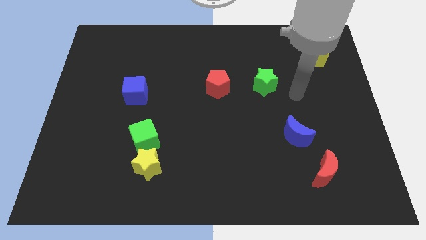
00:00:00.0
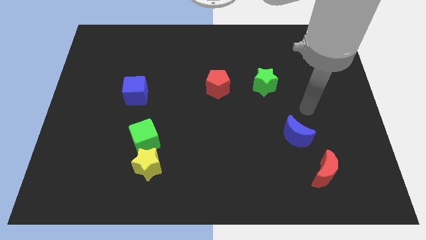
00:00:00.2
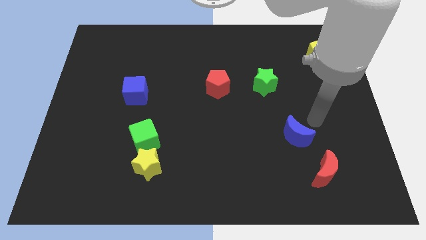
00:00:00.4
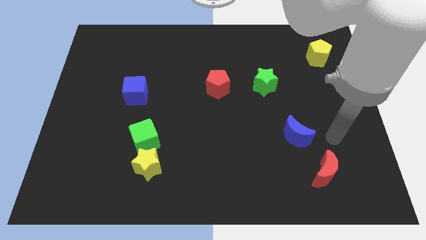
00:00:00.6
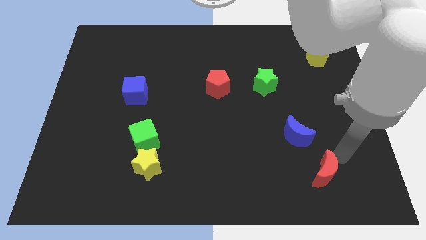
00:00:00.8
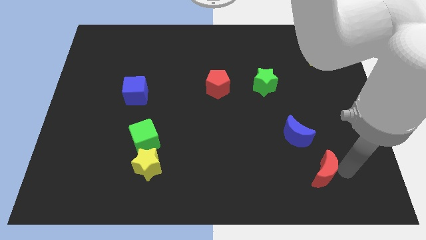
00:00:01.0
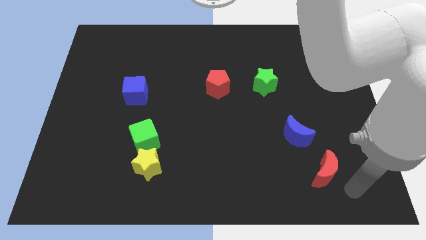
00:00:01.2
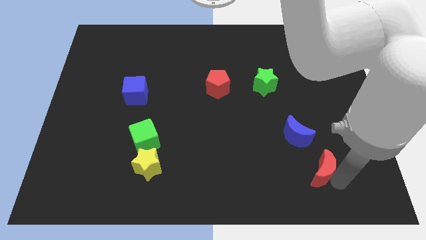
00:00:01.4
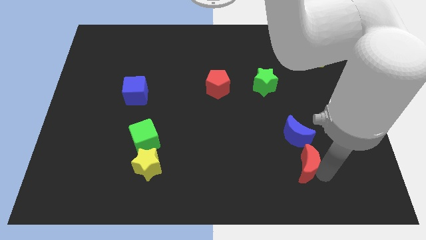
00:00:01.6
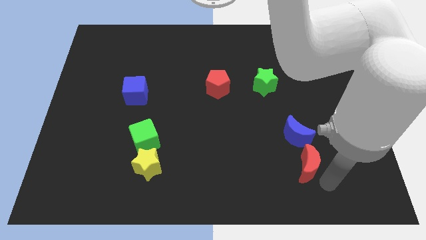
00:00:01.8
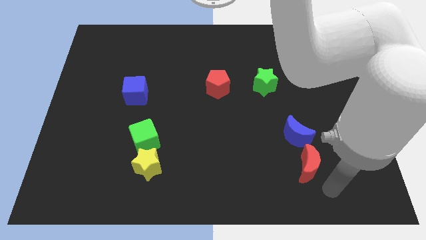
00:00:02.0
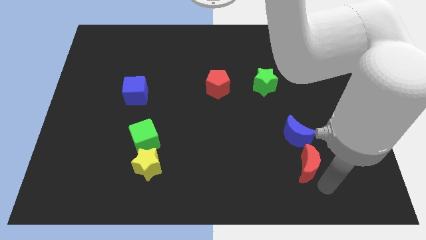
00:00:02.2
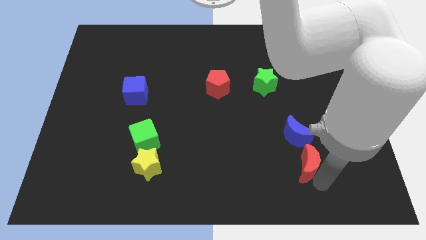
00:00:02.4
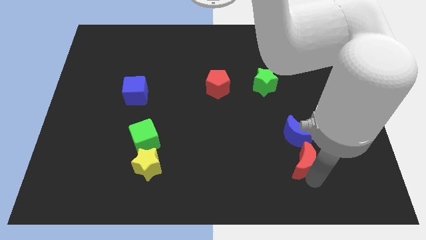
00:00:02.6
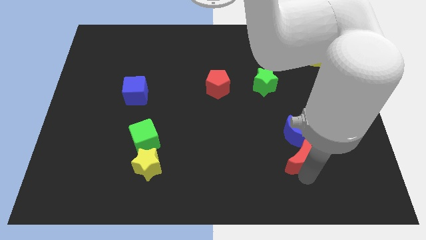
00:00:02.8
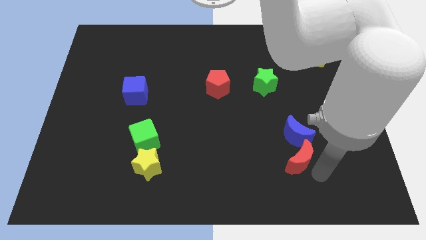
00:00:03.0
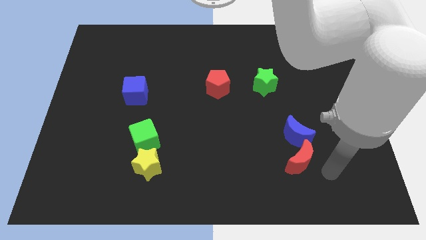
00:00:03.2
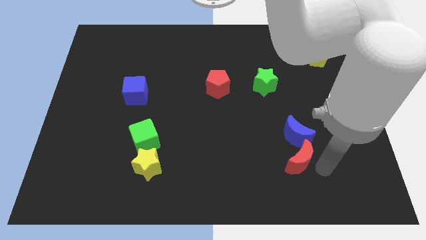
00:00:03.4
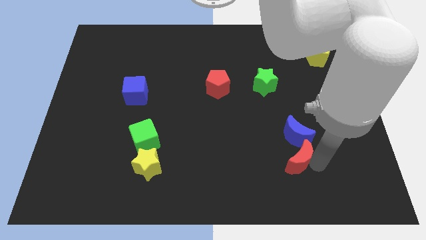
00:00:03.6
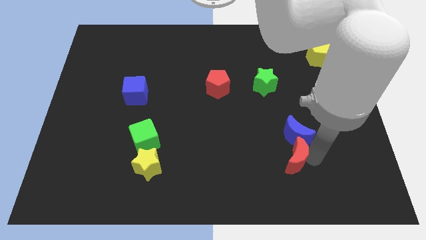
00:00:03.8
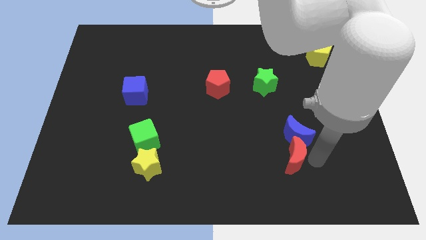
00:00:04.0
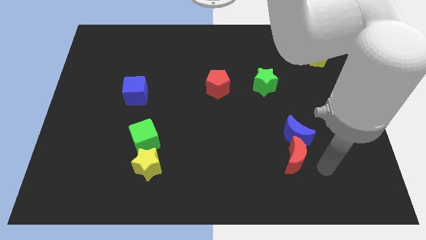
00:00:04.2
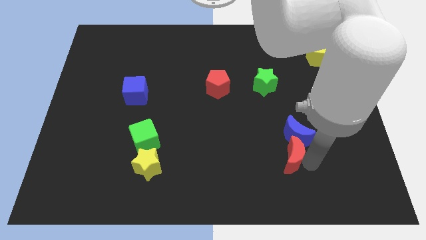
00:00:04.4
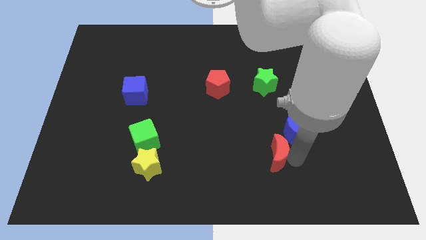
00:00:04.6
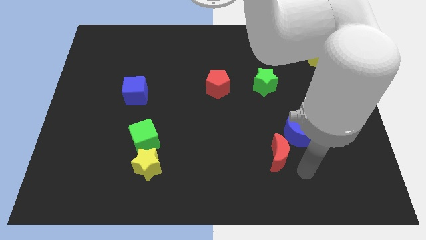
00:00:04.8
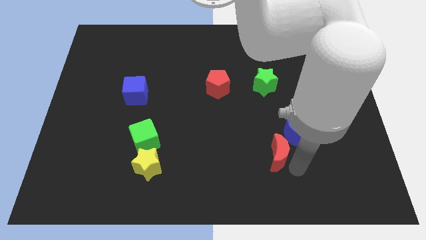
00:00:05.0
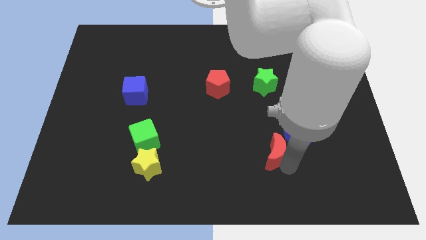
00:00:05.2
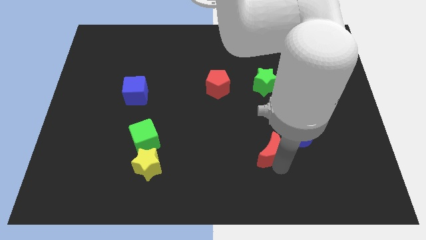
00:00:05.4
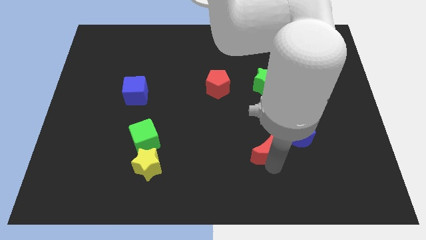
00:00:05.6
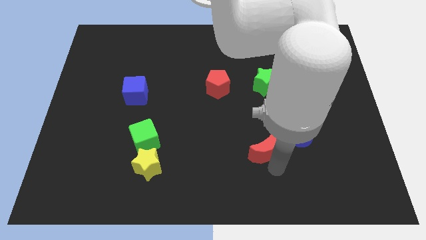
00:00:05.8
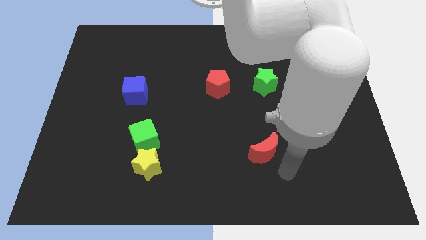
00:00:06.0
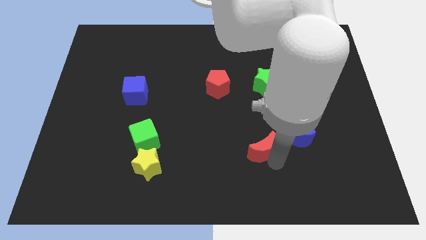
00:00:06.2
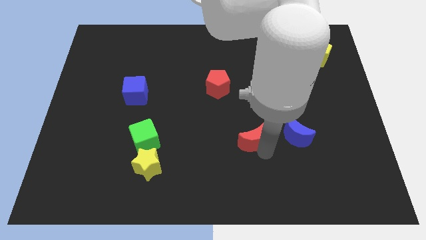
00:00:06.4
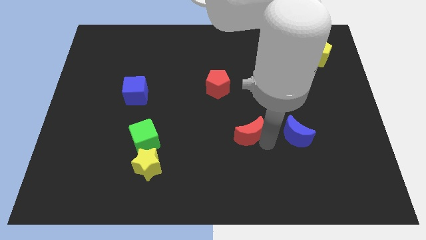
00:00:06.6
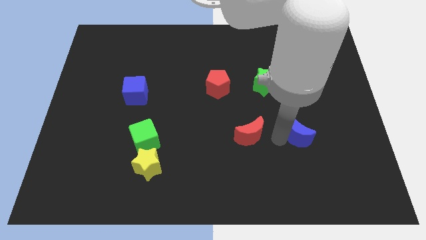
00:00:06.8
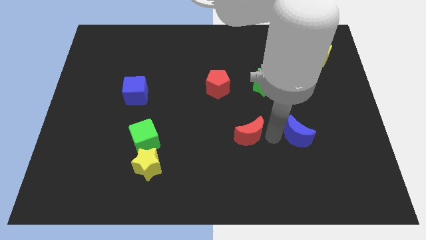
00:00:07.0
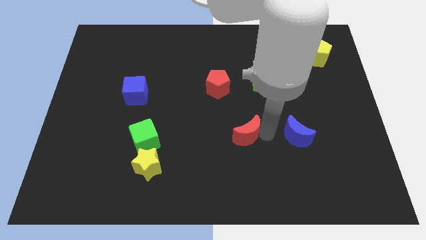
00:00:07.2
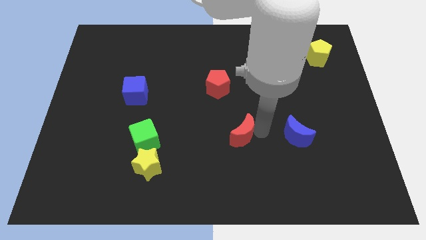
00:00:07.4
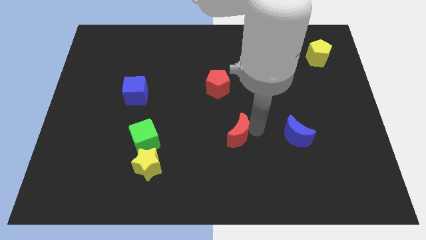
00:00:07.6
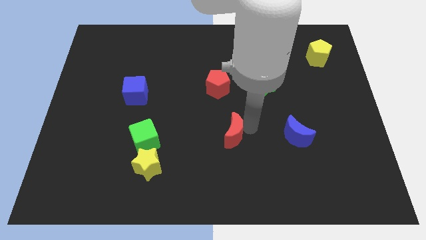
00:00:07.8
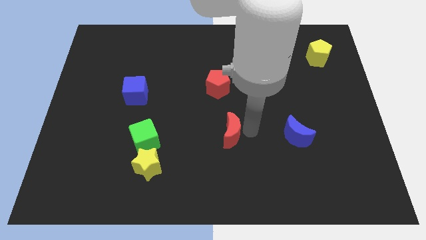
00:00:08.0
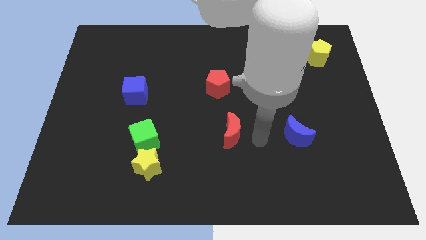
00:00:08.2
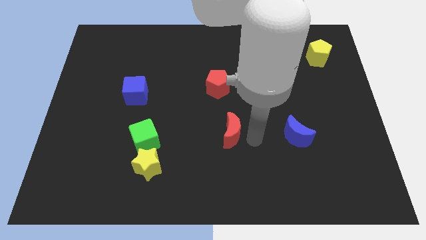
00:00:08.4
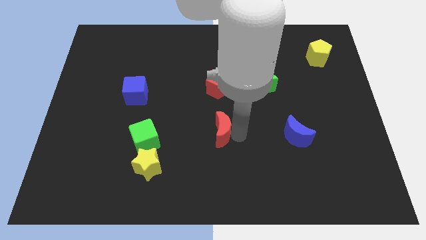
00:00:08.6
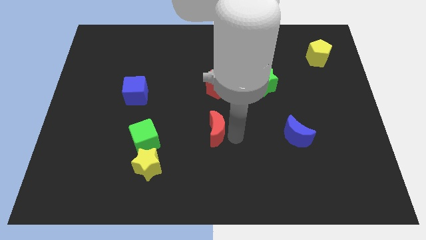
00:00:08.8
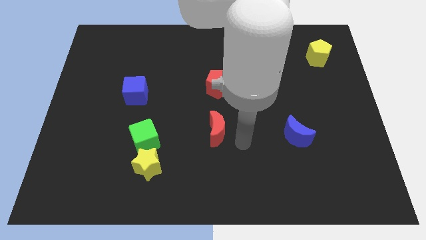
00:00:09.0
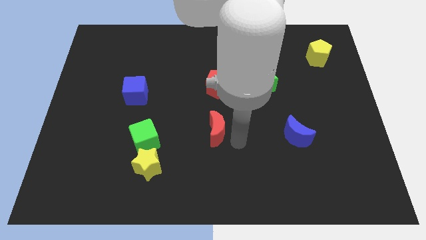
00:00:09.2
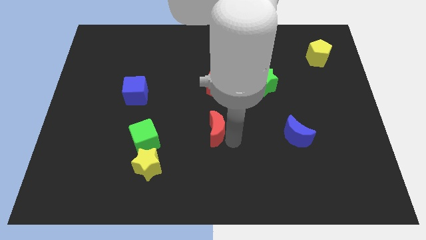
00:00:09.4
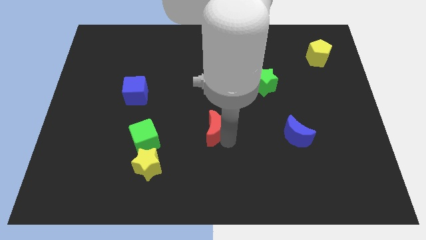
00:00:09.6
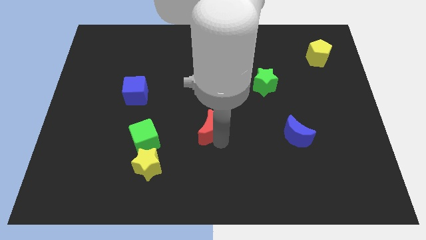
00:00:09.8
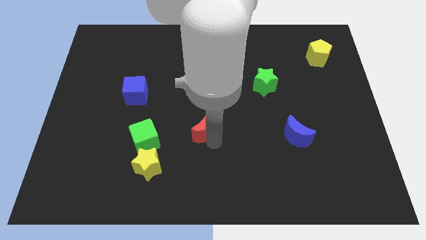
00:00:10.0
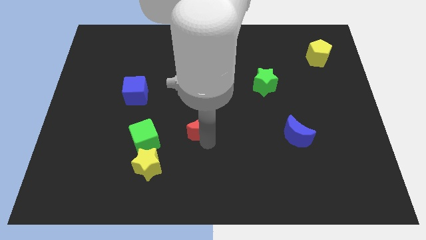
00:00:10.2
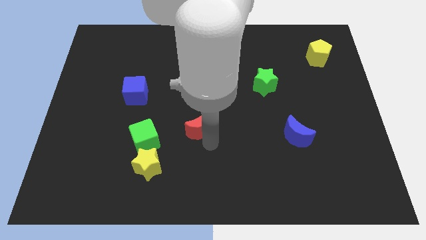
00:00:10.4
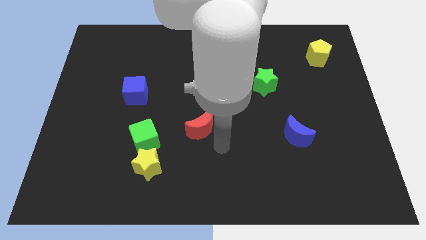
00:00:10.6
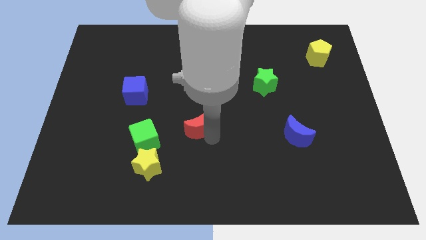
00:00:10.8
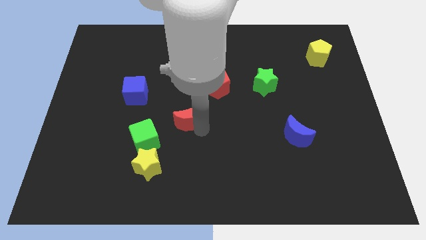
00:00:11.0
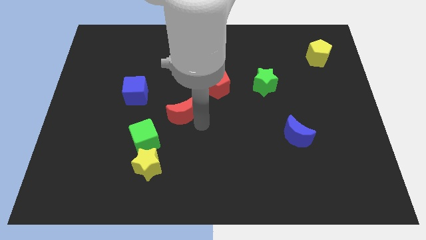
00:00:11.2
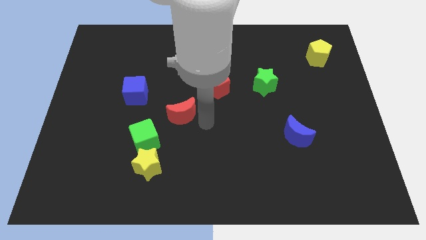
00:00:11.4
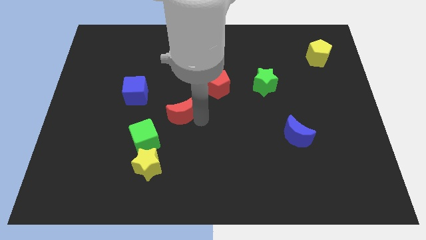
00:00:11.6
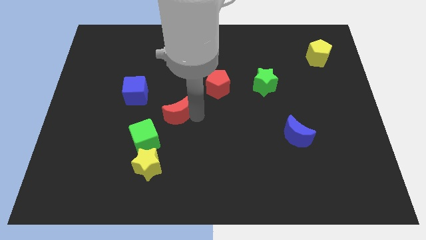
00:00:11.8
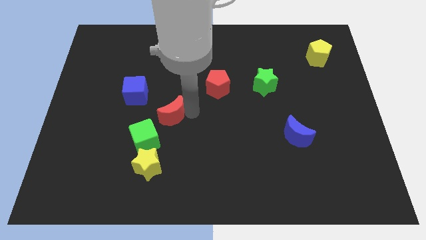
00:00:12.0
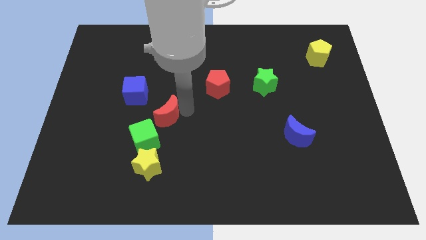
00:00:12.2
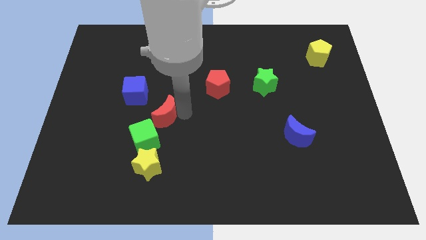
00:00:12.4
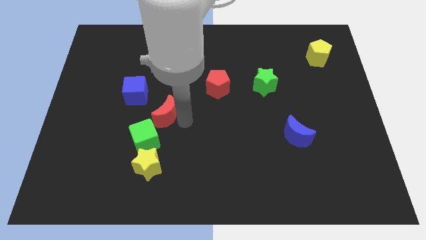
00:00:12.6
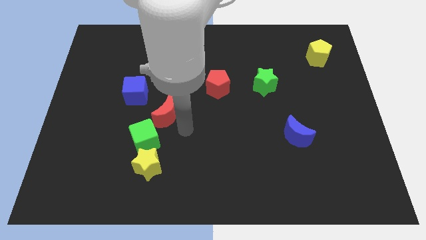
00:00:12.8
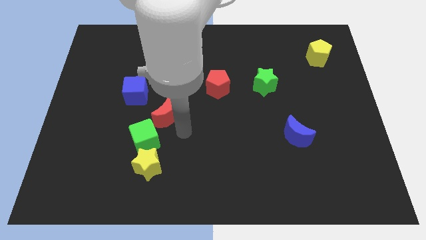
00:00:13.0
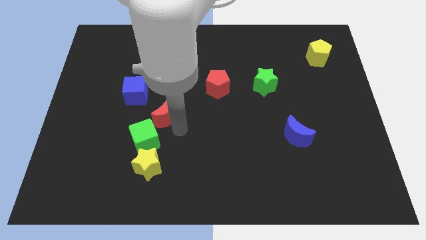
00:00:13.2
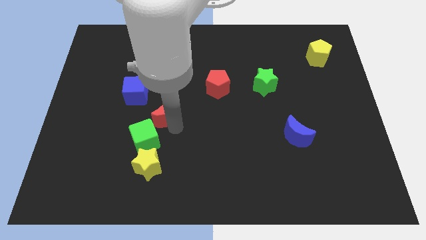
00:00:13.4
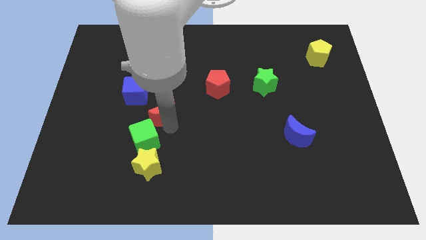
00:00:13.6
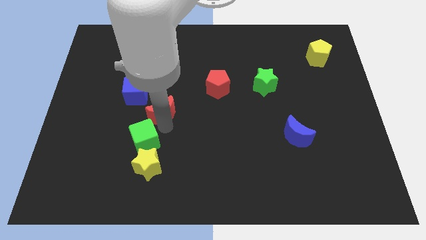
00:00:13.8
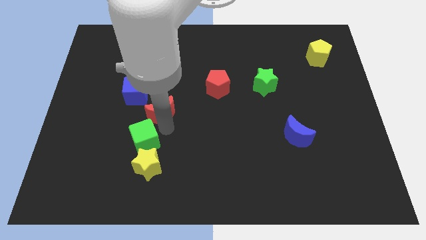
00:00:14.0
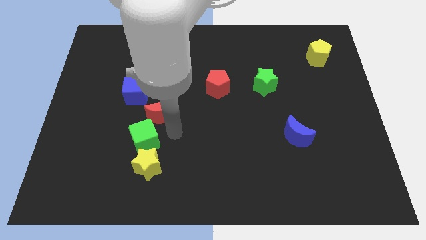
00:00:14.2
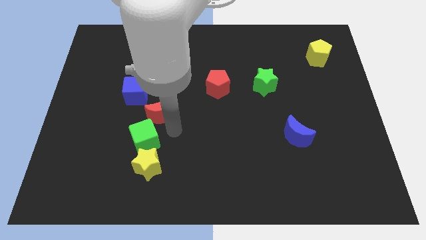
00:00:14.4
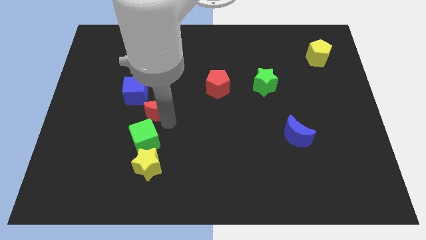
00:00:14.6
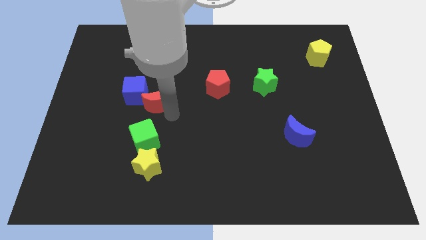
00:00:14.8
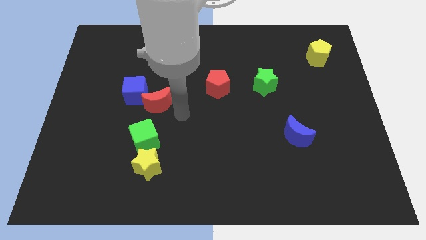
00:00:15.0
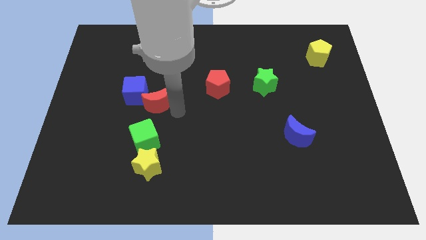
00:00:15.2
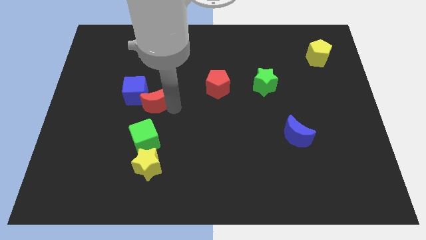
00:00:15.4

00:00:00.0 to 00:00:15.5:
push the red moon towards the blue cube
